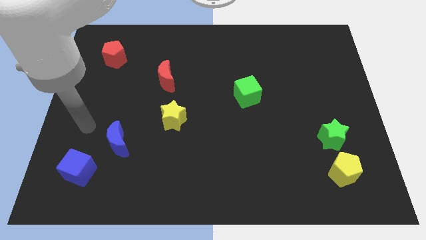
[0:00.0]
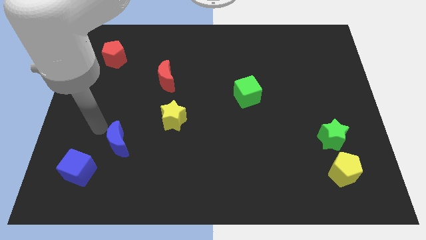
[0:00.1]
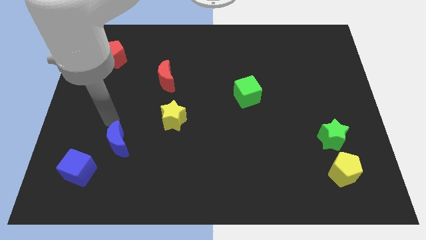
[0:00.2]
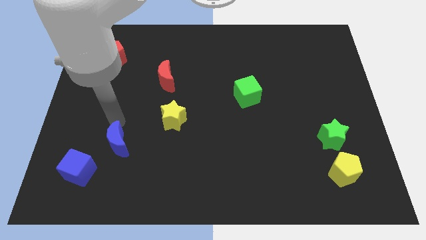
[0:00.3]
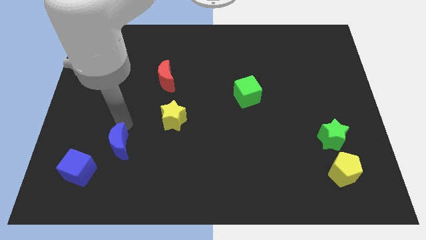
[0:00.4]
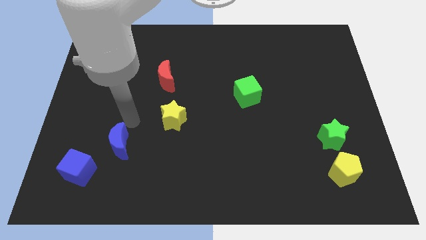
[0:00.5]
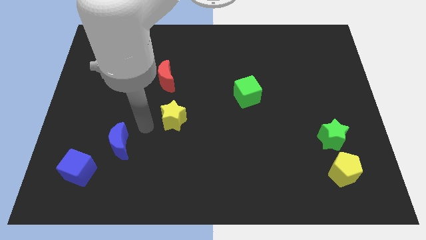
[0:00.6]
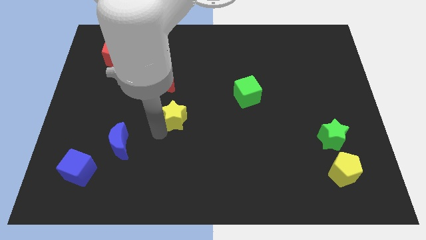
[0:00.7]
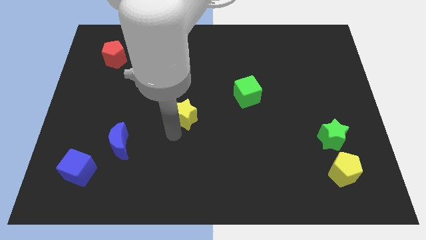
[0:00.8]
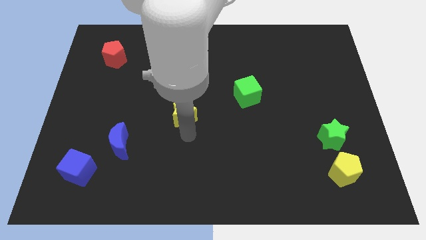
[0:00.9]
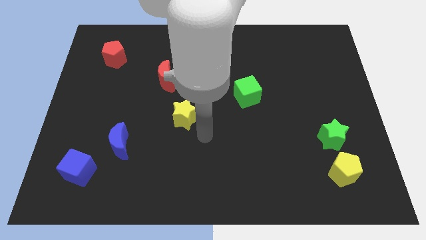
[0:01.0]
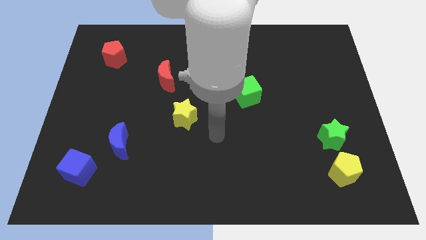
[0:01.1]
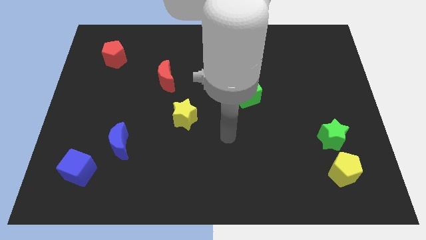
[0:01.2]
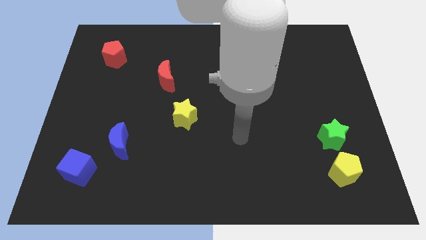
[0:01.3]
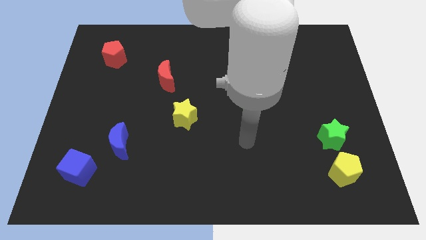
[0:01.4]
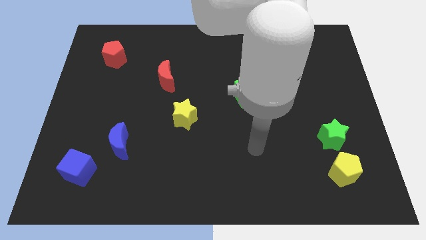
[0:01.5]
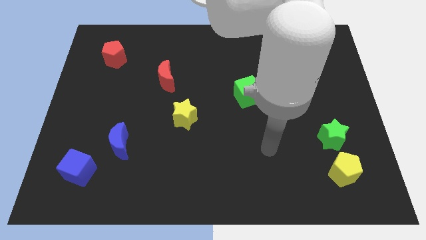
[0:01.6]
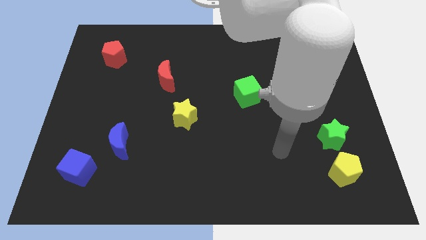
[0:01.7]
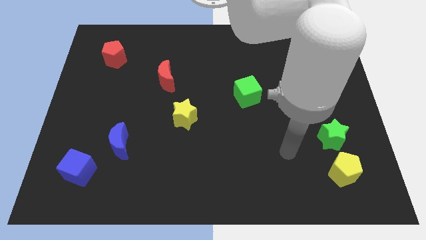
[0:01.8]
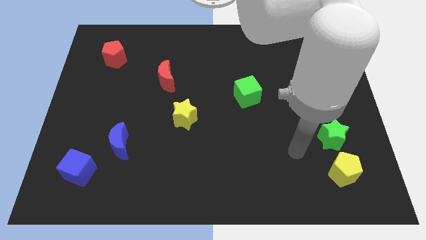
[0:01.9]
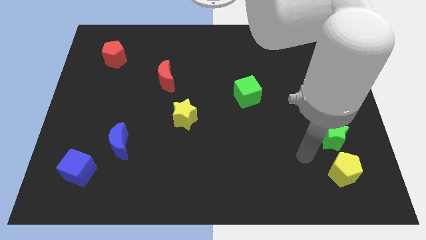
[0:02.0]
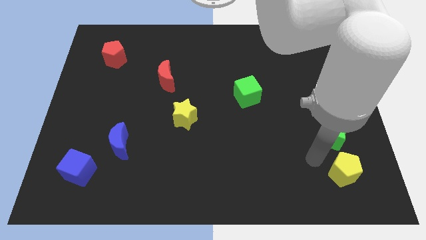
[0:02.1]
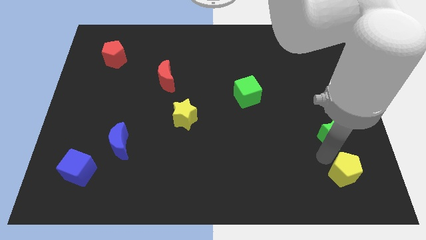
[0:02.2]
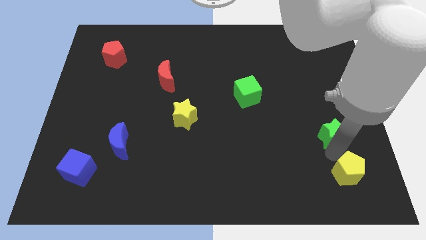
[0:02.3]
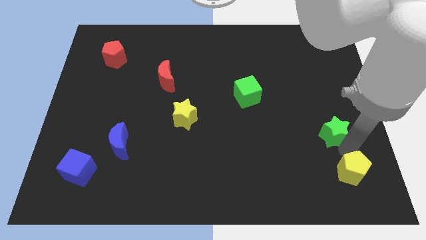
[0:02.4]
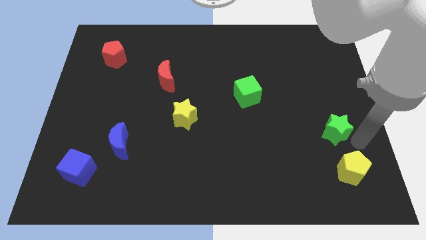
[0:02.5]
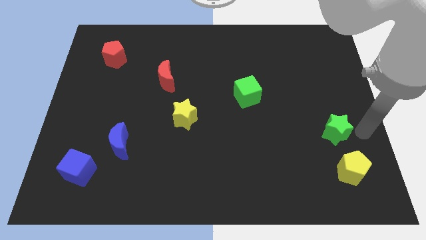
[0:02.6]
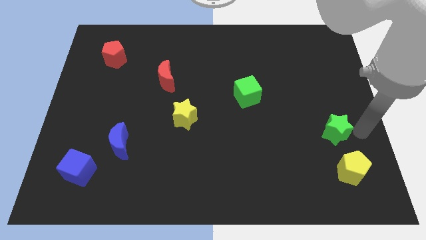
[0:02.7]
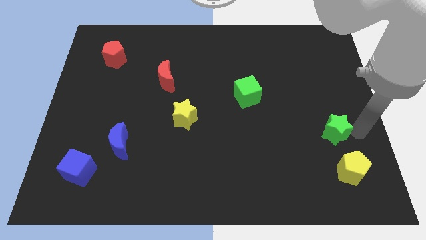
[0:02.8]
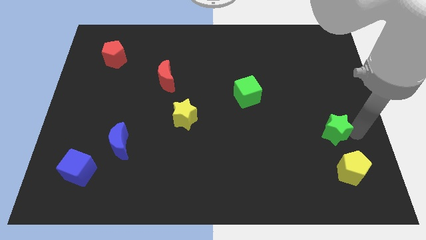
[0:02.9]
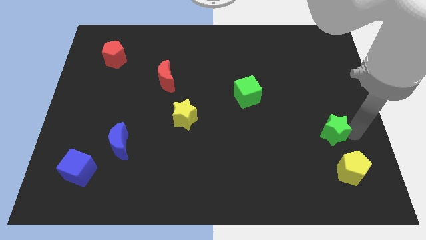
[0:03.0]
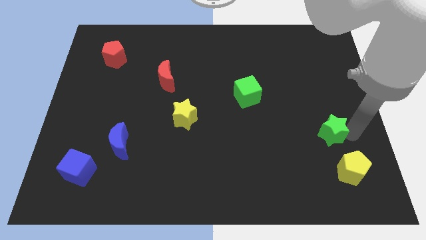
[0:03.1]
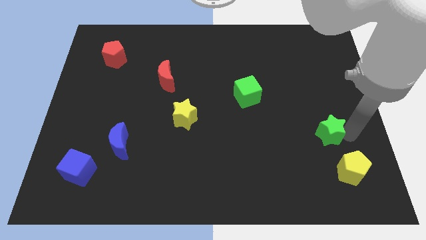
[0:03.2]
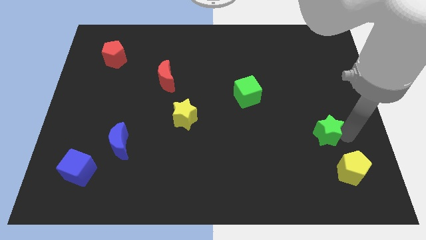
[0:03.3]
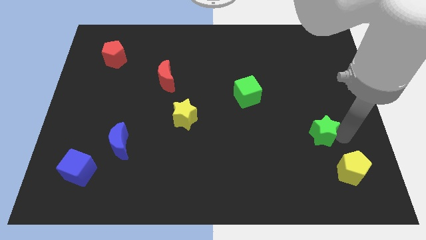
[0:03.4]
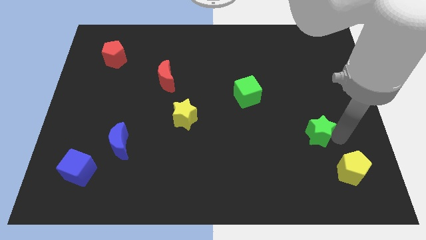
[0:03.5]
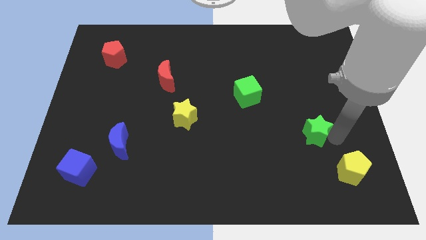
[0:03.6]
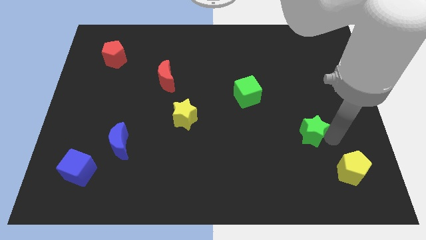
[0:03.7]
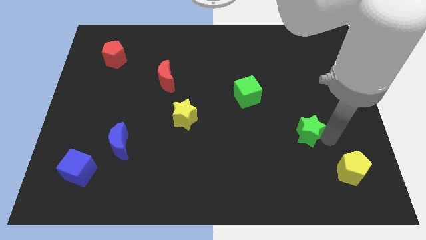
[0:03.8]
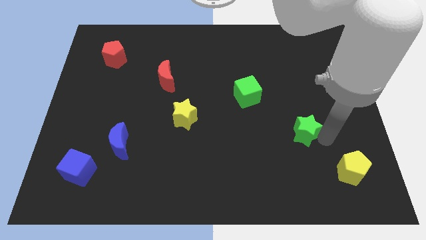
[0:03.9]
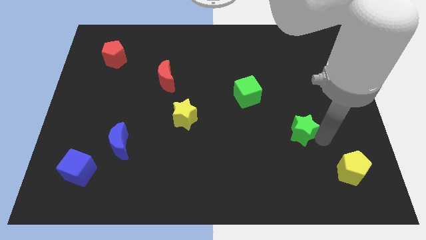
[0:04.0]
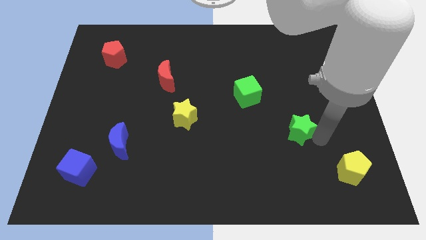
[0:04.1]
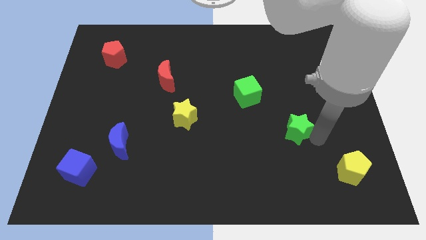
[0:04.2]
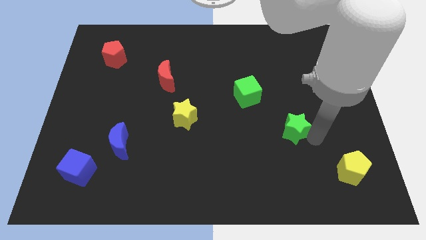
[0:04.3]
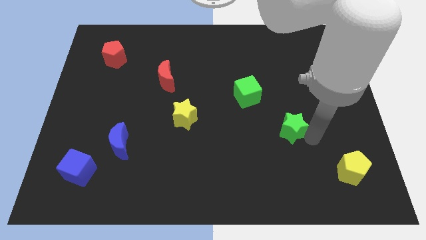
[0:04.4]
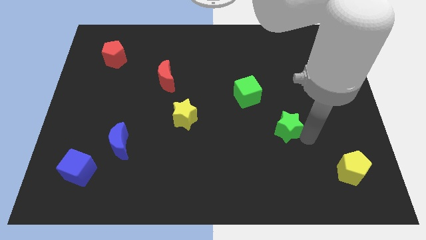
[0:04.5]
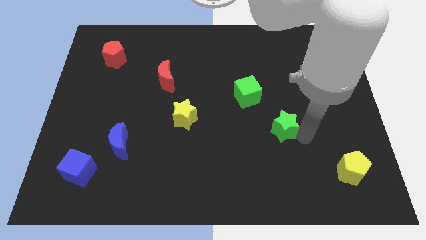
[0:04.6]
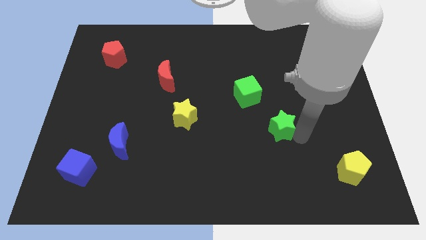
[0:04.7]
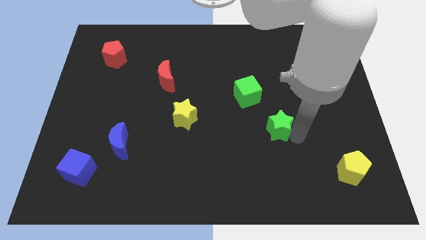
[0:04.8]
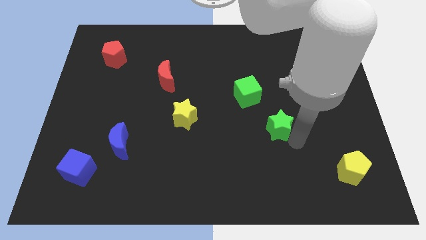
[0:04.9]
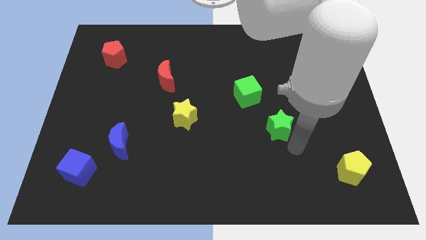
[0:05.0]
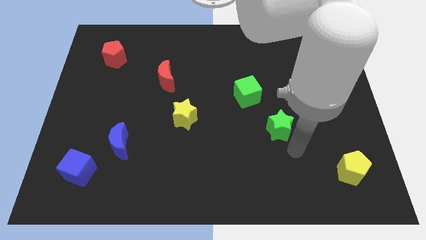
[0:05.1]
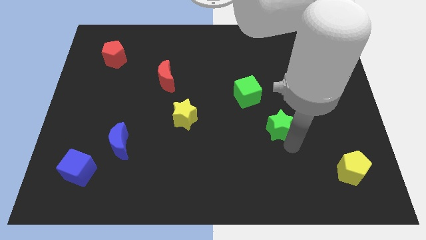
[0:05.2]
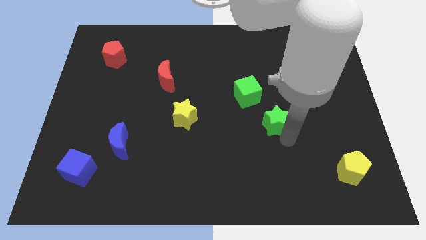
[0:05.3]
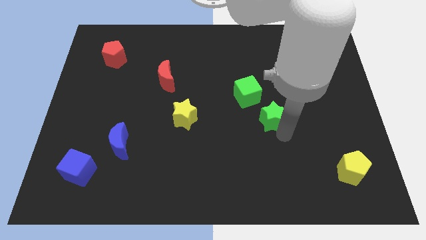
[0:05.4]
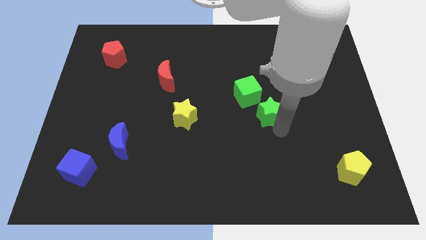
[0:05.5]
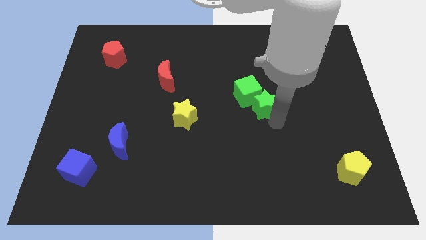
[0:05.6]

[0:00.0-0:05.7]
move the green star towards the green cube

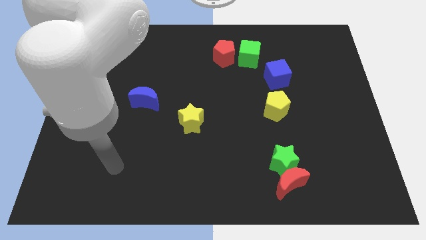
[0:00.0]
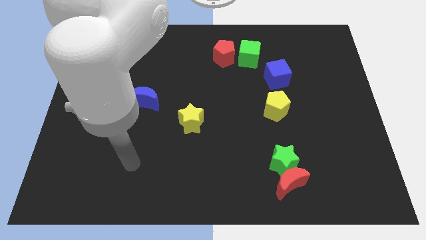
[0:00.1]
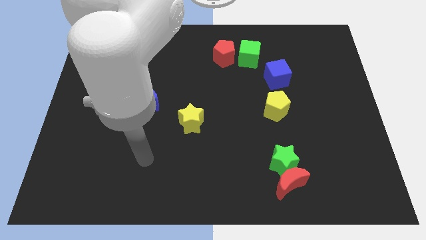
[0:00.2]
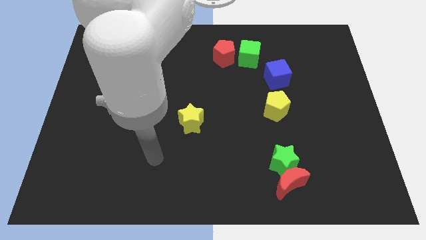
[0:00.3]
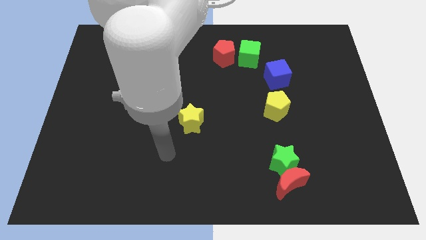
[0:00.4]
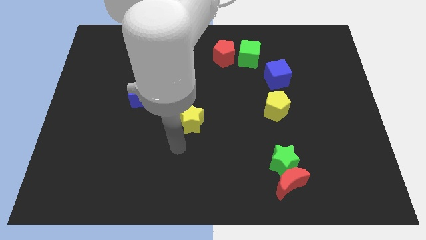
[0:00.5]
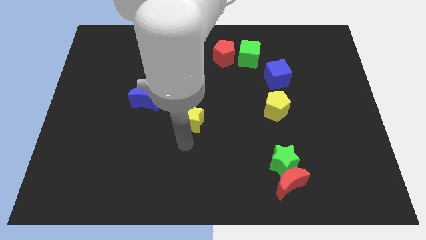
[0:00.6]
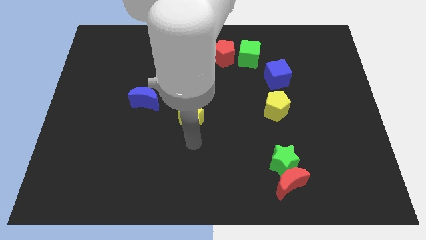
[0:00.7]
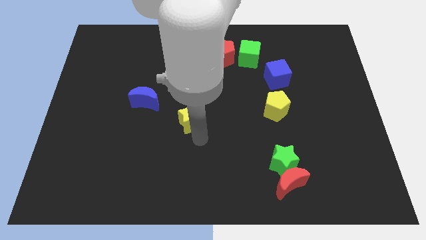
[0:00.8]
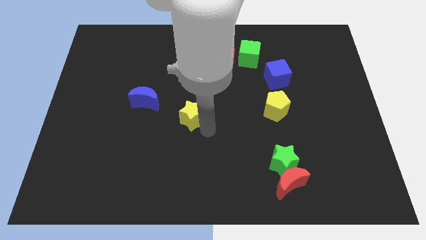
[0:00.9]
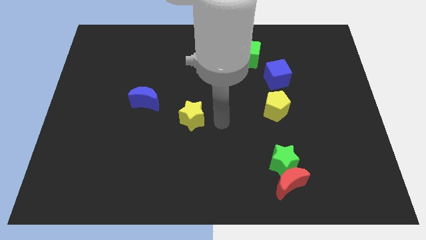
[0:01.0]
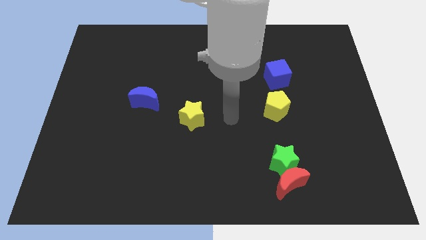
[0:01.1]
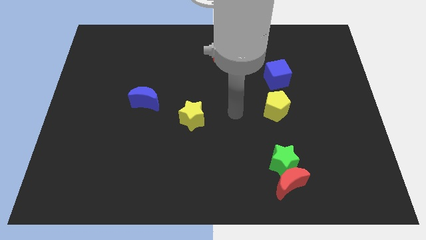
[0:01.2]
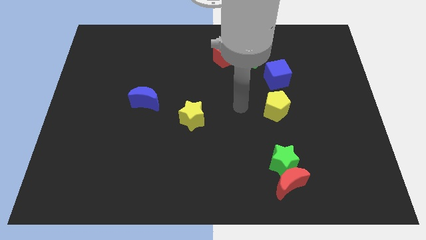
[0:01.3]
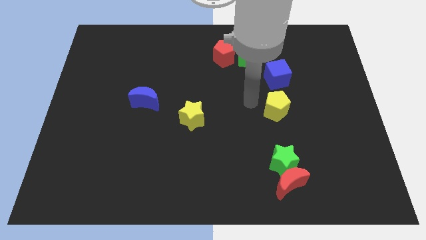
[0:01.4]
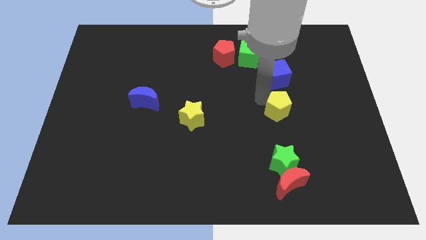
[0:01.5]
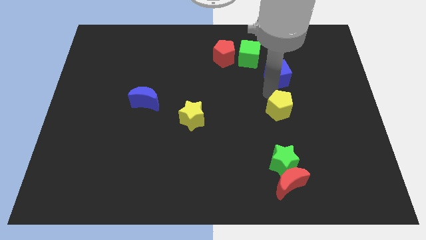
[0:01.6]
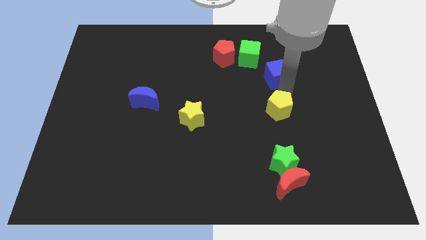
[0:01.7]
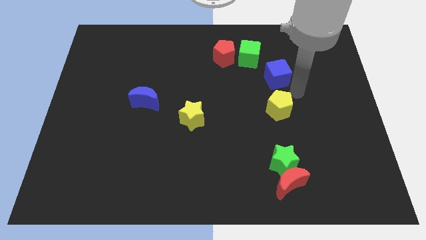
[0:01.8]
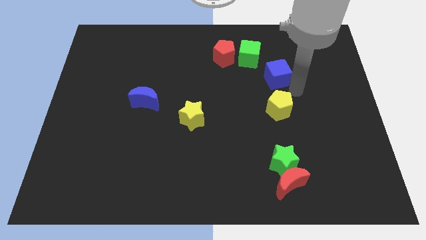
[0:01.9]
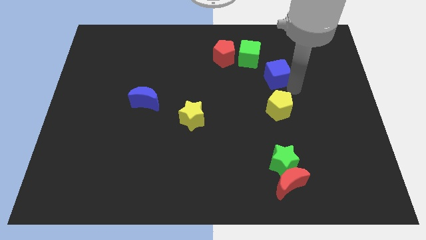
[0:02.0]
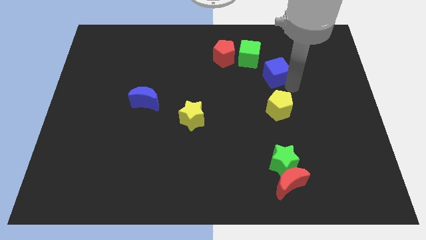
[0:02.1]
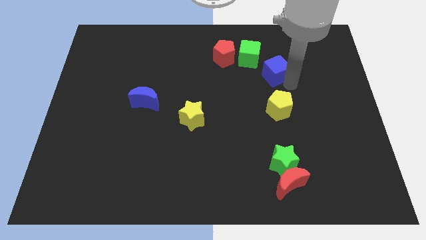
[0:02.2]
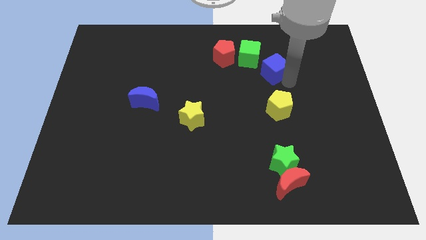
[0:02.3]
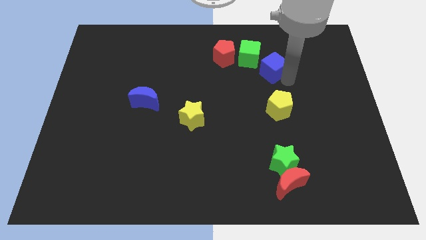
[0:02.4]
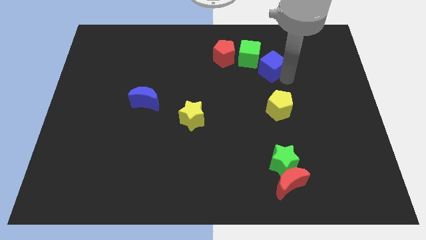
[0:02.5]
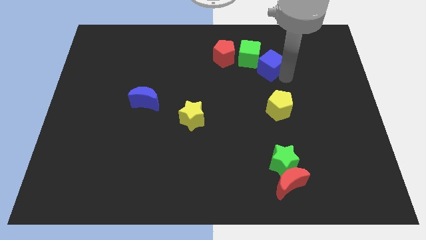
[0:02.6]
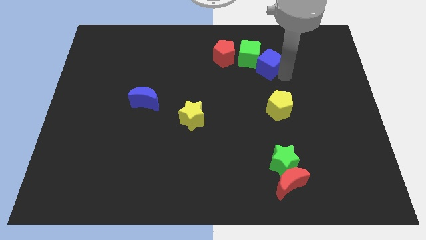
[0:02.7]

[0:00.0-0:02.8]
slide the blue cube towards the green cube
